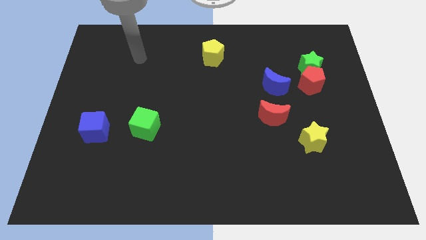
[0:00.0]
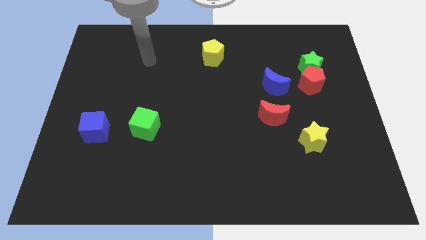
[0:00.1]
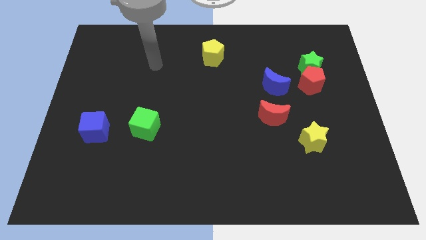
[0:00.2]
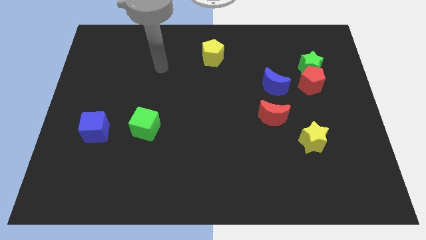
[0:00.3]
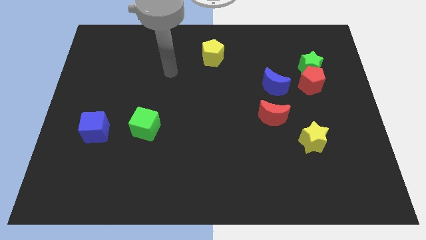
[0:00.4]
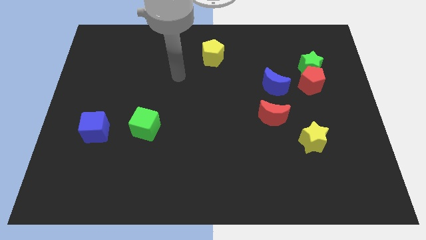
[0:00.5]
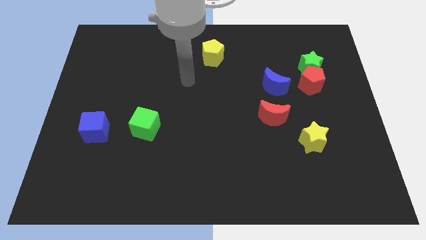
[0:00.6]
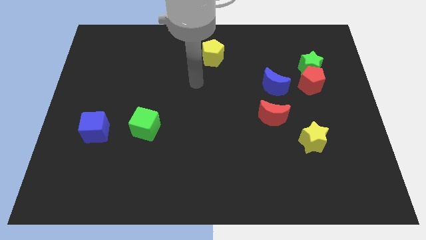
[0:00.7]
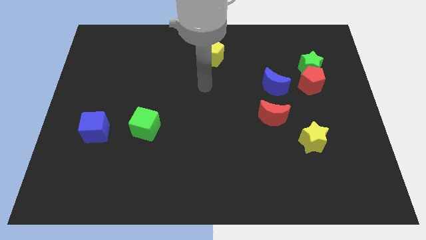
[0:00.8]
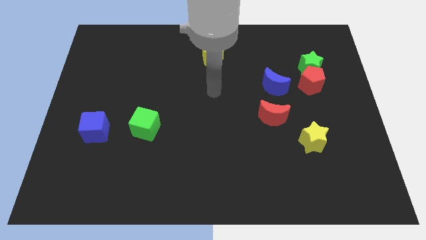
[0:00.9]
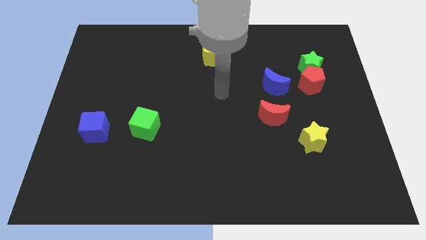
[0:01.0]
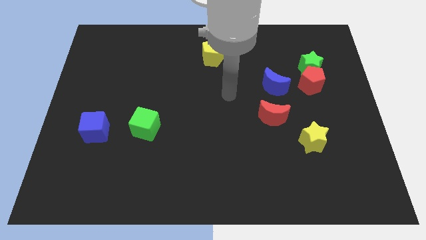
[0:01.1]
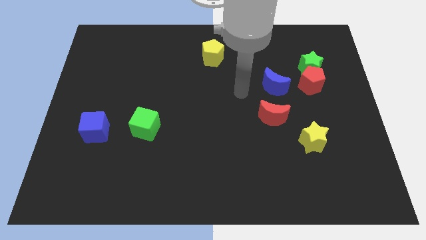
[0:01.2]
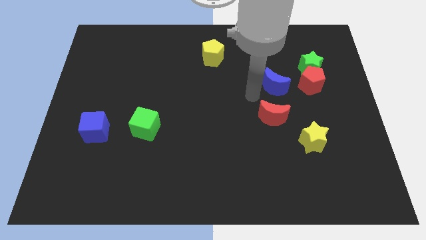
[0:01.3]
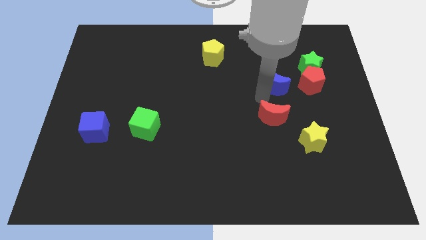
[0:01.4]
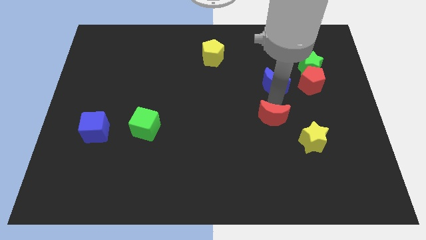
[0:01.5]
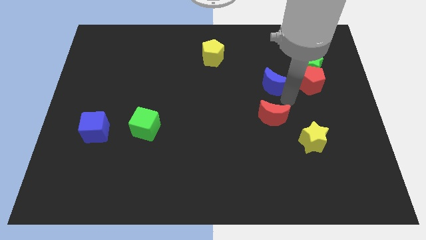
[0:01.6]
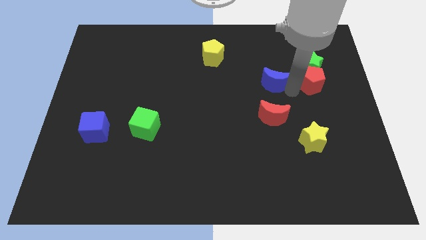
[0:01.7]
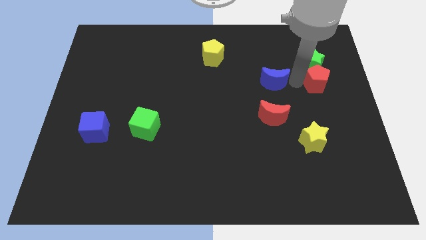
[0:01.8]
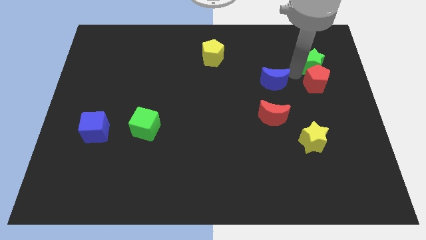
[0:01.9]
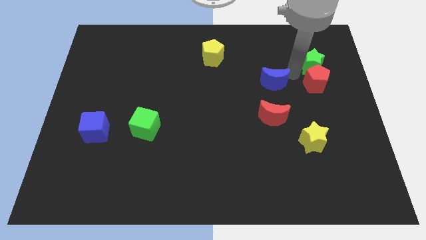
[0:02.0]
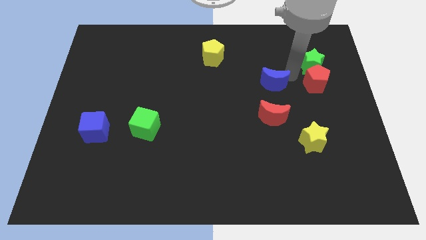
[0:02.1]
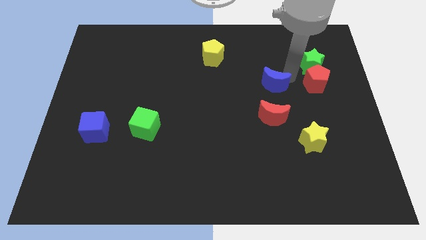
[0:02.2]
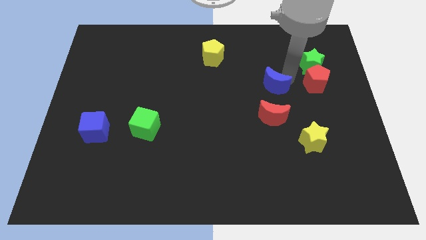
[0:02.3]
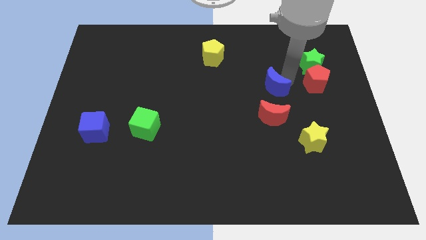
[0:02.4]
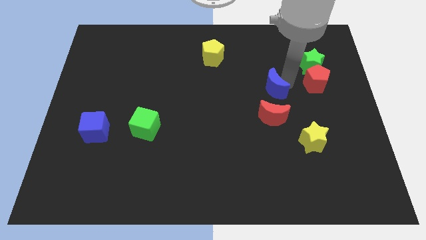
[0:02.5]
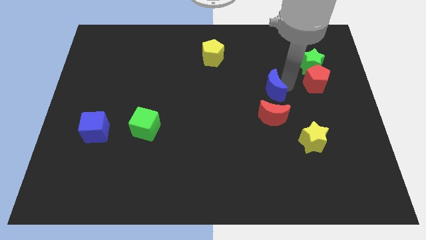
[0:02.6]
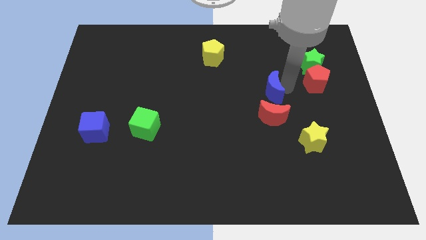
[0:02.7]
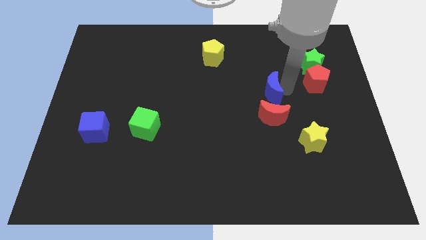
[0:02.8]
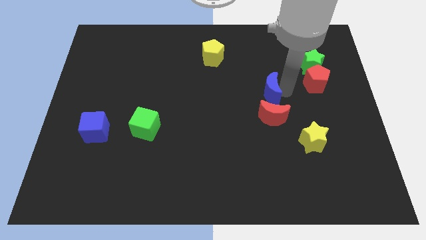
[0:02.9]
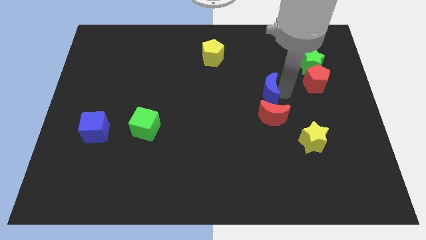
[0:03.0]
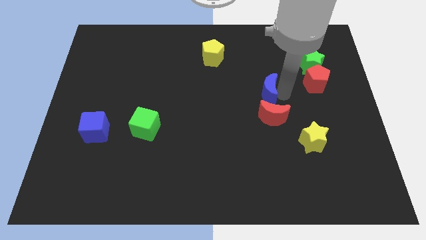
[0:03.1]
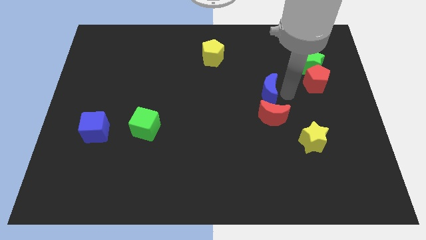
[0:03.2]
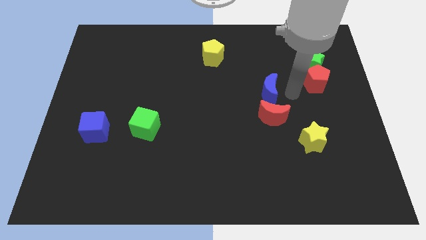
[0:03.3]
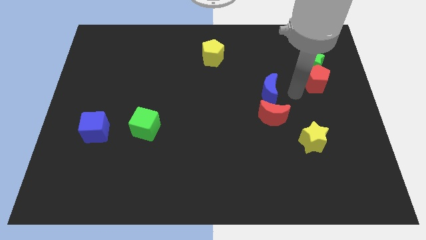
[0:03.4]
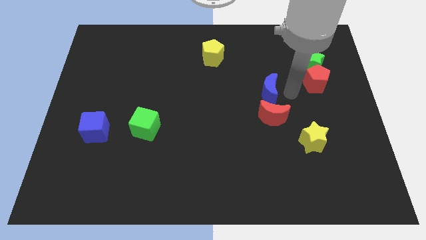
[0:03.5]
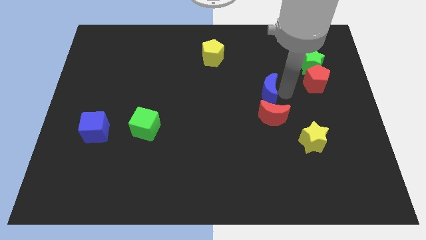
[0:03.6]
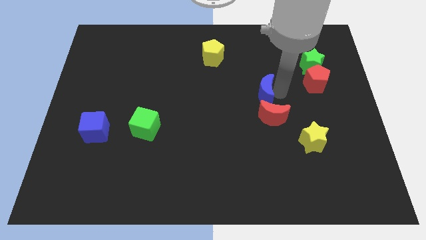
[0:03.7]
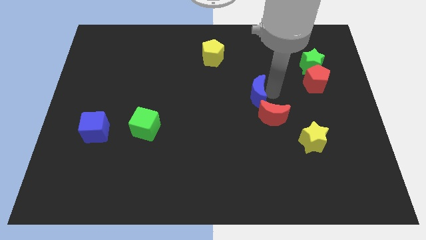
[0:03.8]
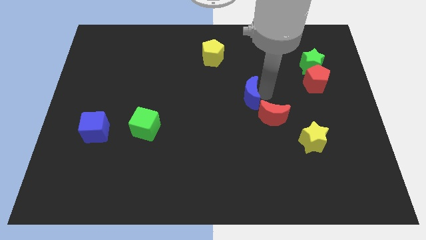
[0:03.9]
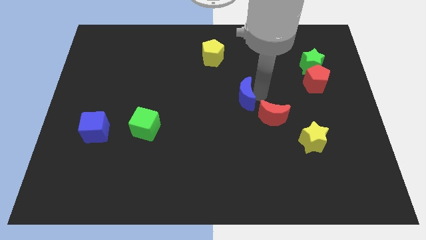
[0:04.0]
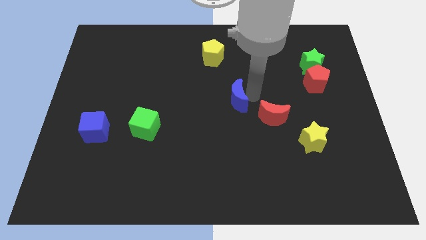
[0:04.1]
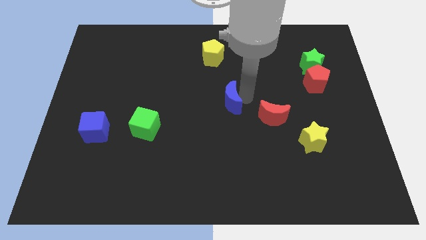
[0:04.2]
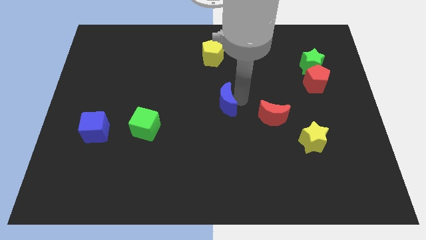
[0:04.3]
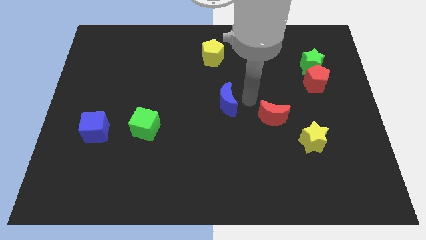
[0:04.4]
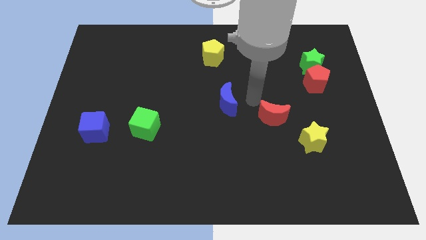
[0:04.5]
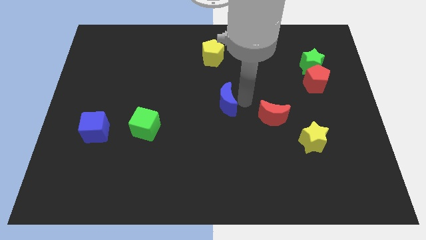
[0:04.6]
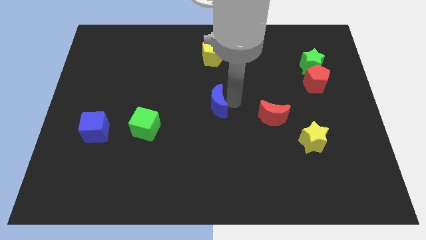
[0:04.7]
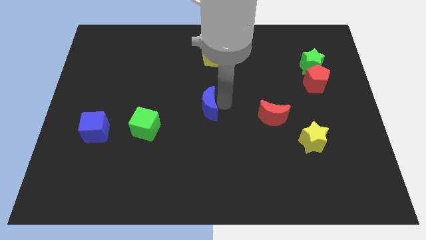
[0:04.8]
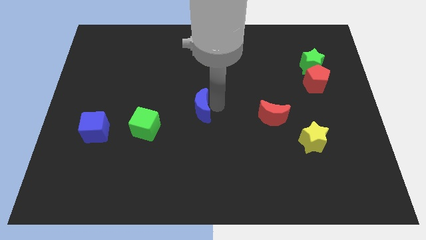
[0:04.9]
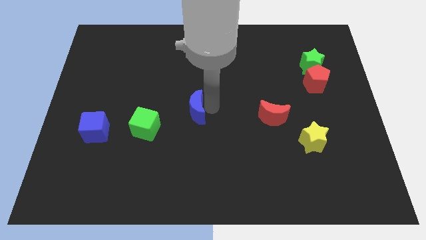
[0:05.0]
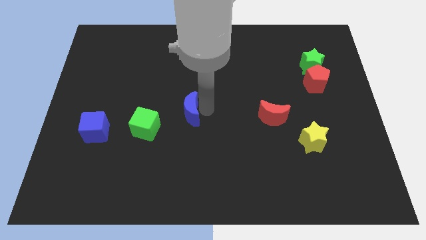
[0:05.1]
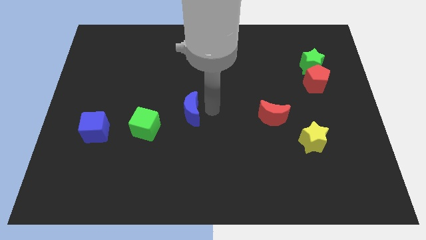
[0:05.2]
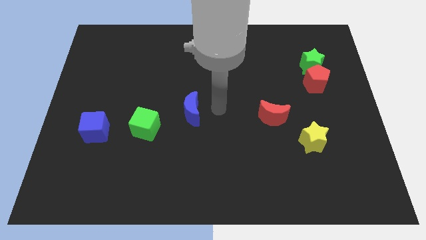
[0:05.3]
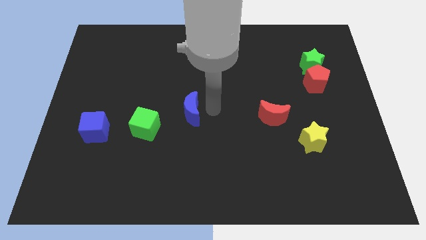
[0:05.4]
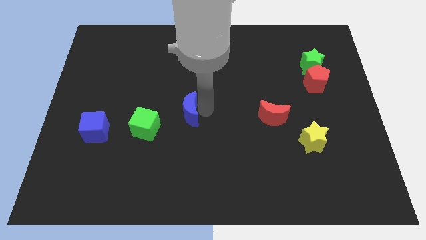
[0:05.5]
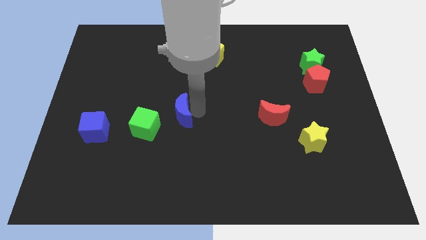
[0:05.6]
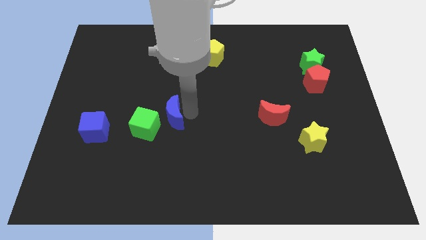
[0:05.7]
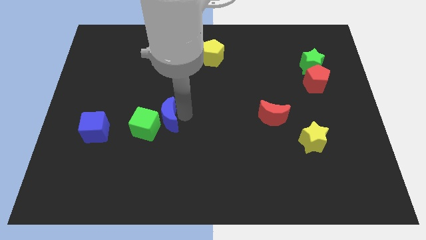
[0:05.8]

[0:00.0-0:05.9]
put the blue moon to the green cube

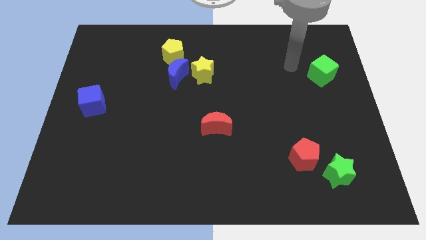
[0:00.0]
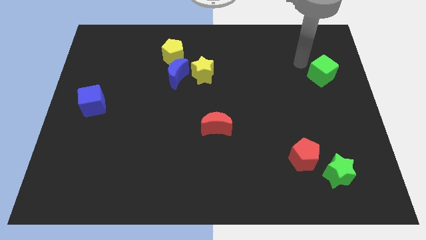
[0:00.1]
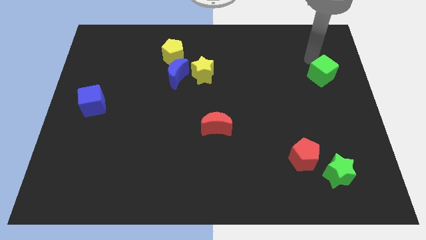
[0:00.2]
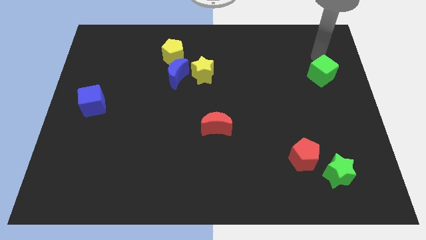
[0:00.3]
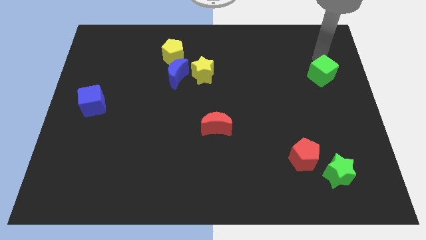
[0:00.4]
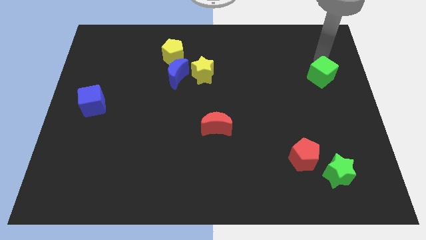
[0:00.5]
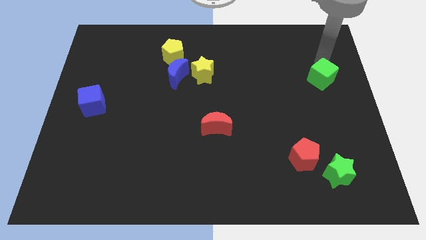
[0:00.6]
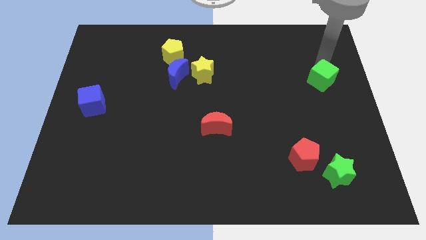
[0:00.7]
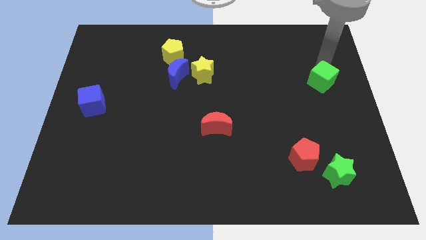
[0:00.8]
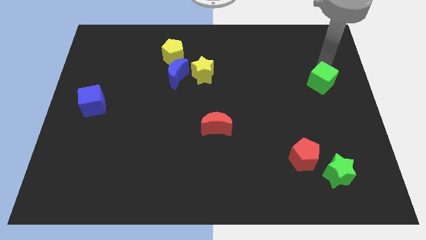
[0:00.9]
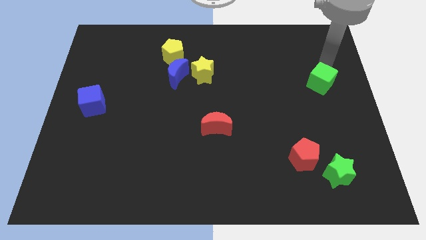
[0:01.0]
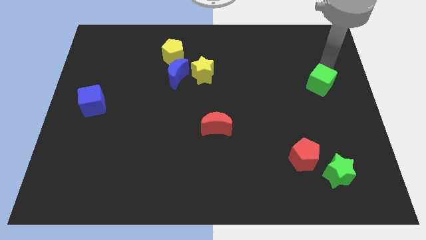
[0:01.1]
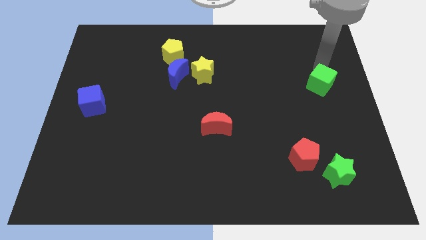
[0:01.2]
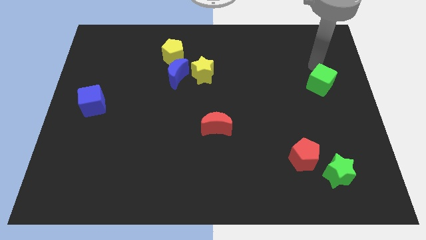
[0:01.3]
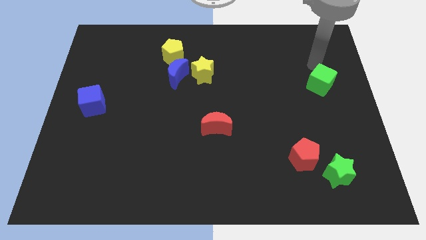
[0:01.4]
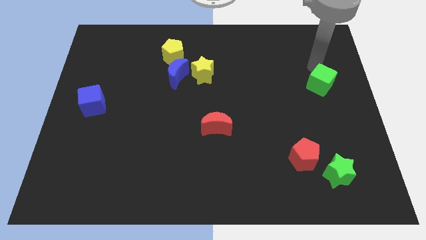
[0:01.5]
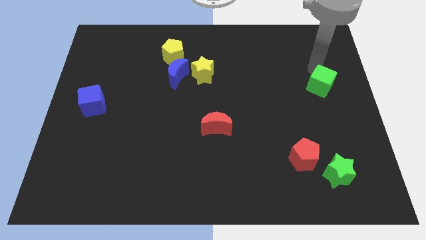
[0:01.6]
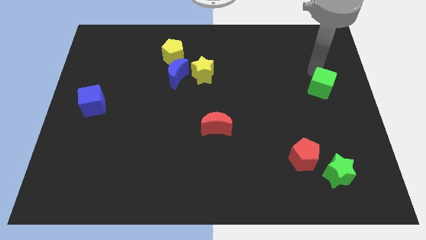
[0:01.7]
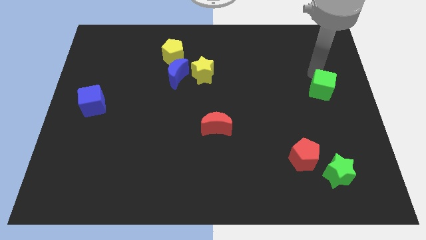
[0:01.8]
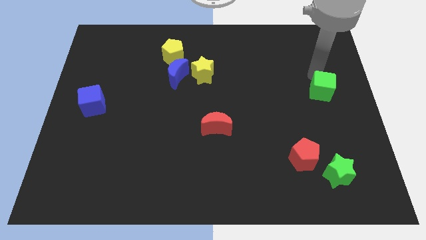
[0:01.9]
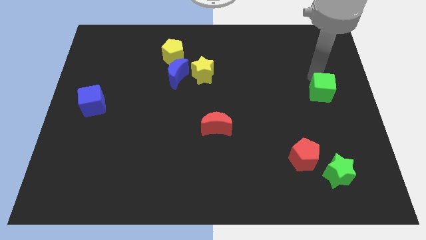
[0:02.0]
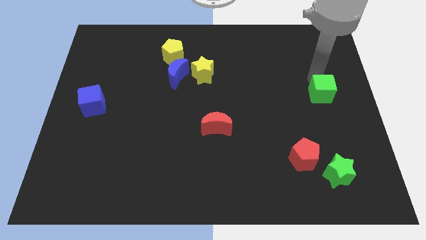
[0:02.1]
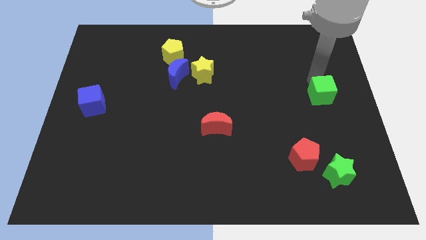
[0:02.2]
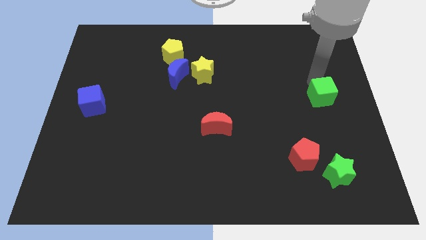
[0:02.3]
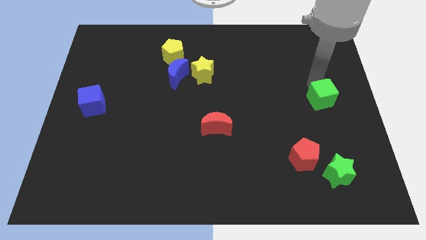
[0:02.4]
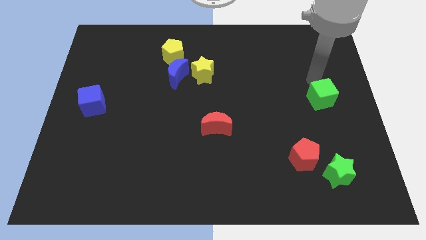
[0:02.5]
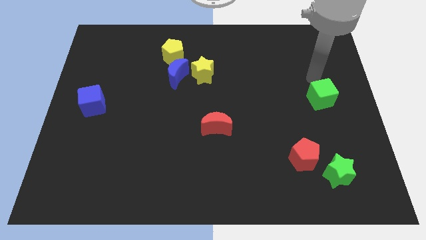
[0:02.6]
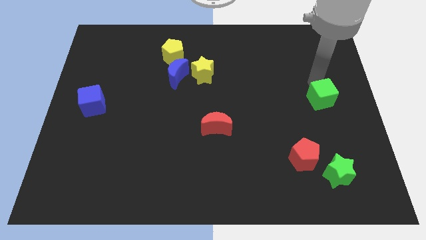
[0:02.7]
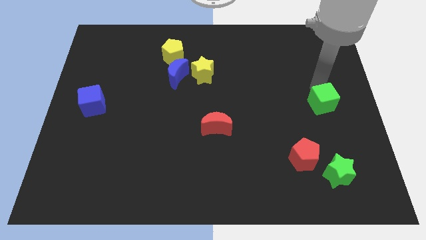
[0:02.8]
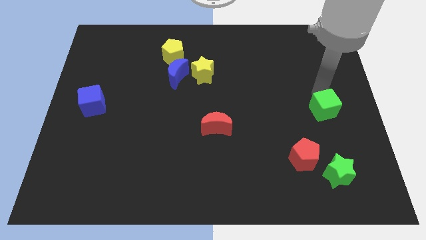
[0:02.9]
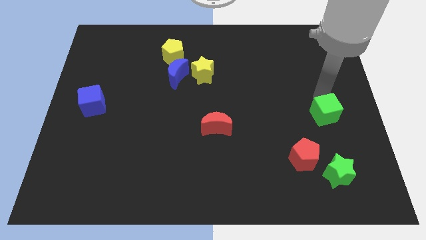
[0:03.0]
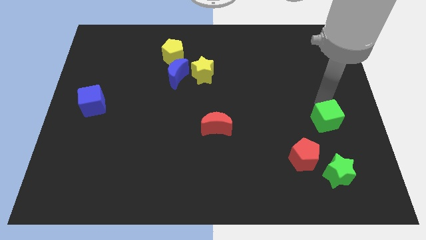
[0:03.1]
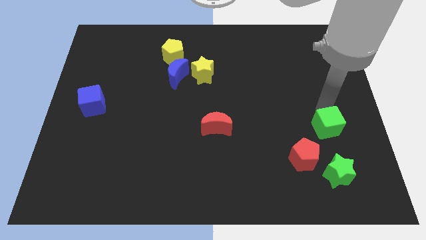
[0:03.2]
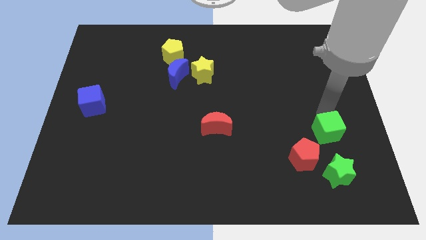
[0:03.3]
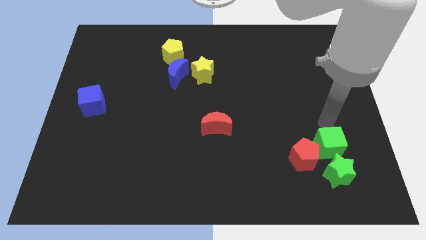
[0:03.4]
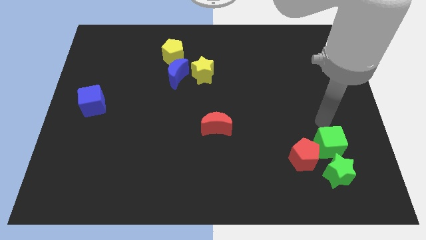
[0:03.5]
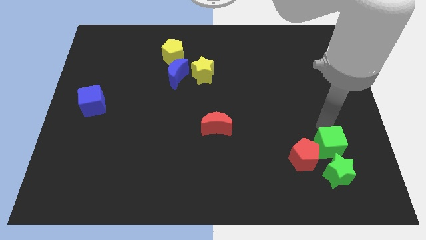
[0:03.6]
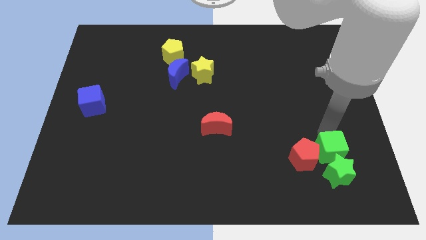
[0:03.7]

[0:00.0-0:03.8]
push the green cube next to the green star
